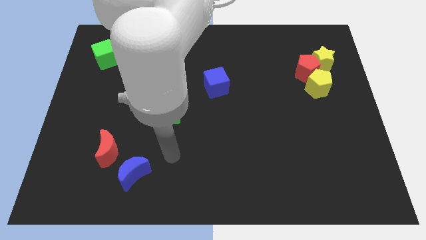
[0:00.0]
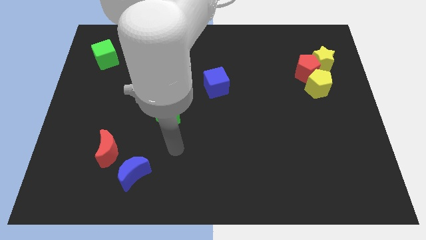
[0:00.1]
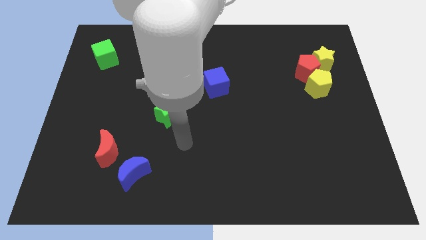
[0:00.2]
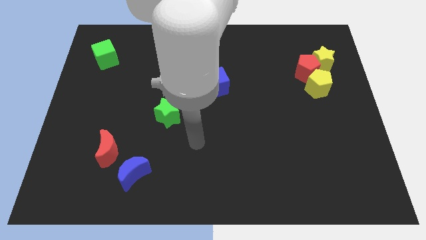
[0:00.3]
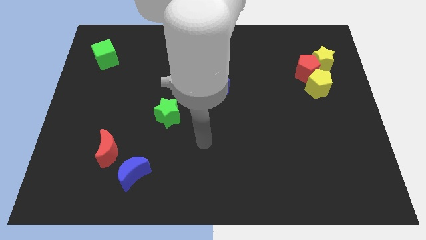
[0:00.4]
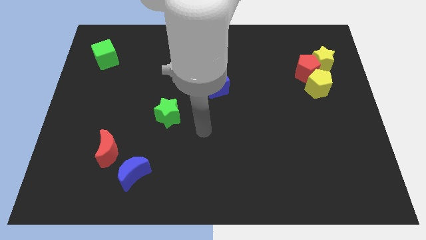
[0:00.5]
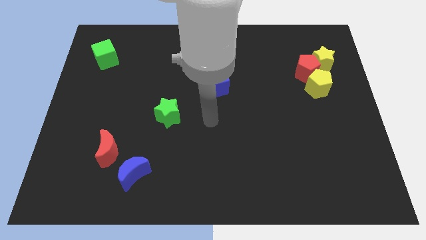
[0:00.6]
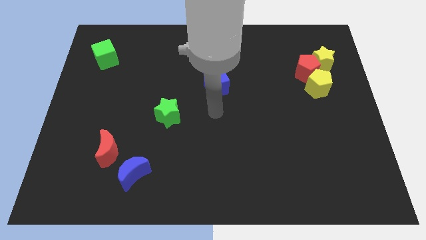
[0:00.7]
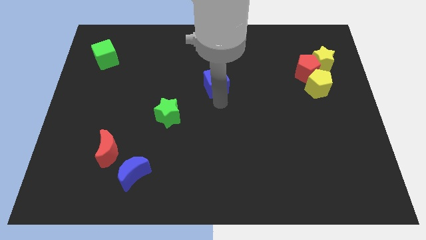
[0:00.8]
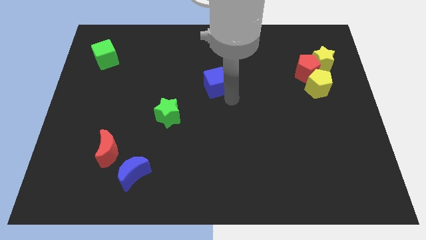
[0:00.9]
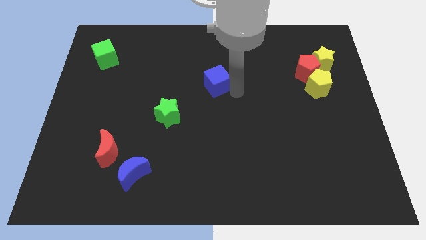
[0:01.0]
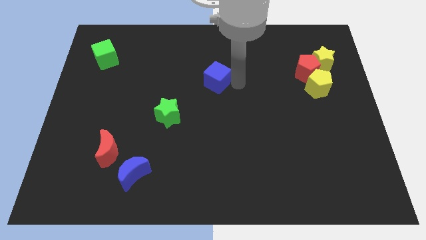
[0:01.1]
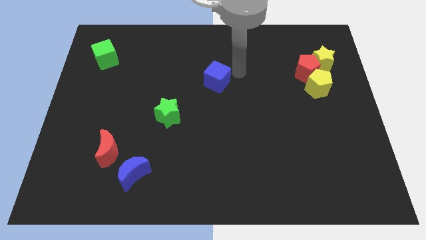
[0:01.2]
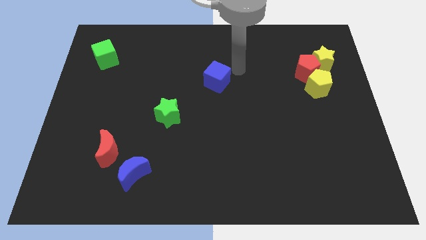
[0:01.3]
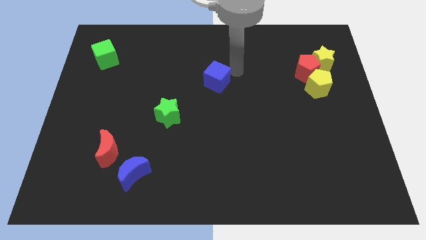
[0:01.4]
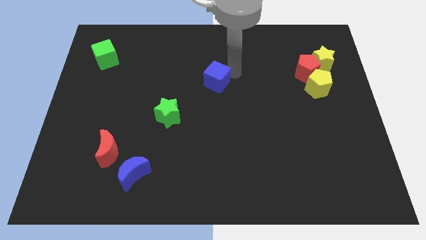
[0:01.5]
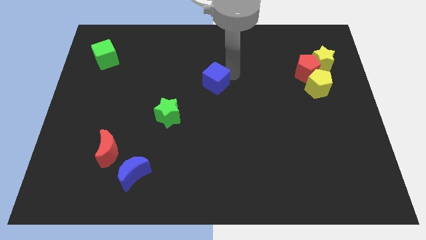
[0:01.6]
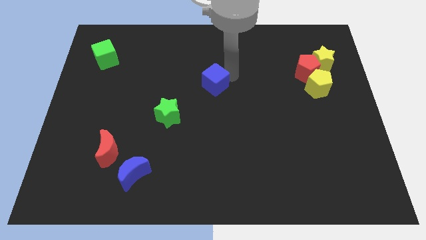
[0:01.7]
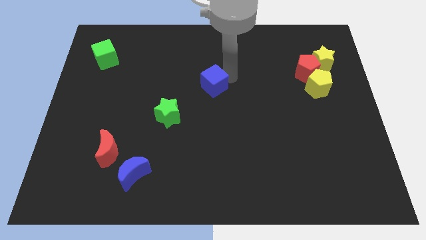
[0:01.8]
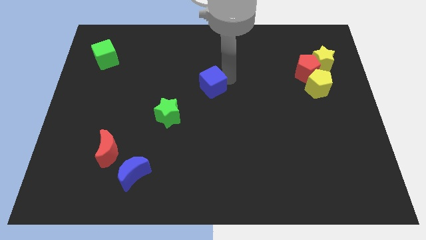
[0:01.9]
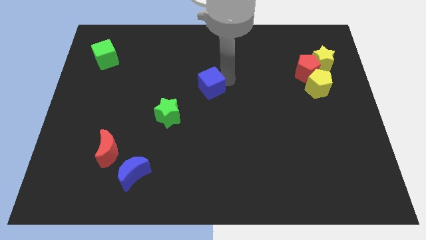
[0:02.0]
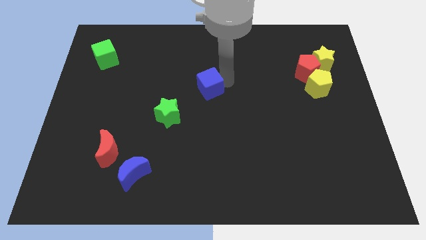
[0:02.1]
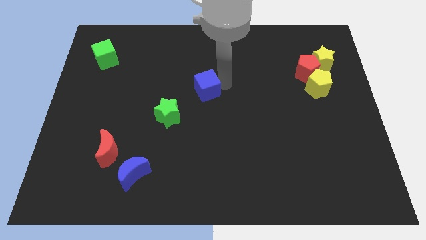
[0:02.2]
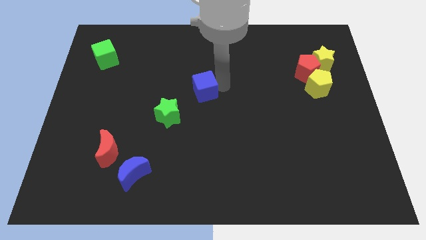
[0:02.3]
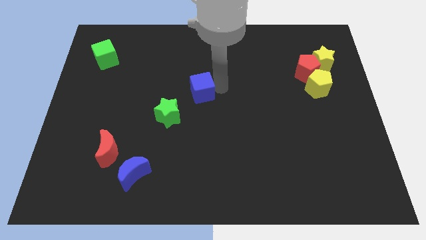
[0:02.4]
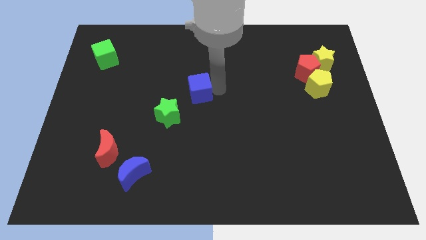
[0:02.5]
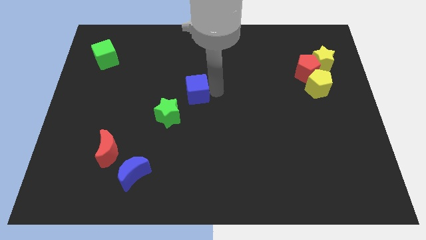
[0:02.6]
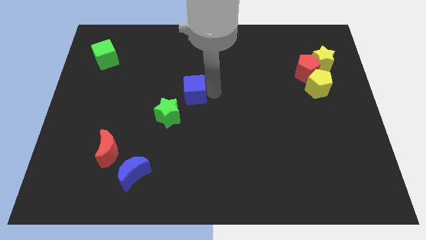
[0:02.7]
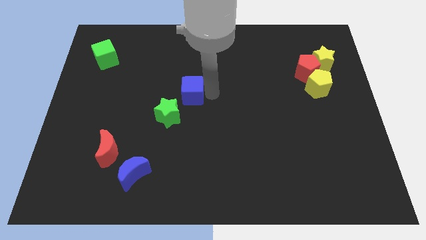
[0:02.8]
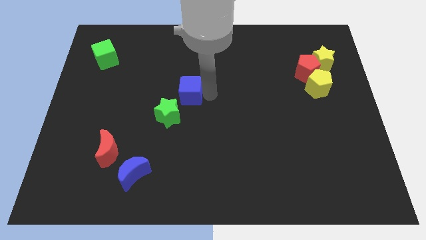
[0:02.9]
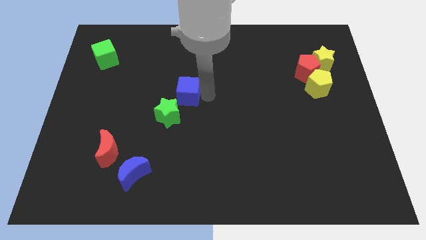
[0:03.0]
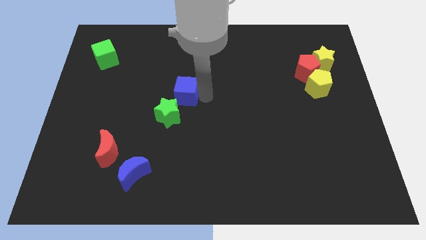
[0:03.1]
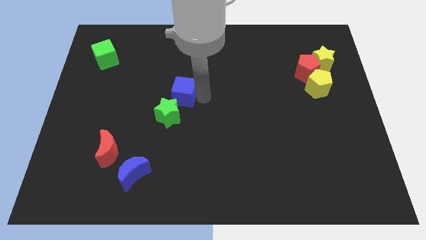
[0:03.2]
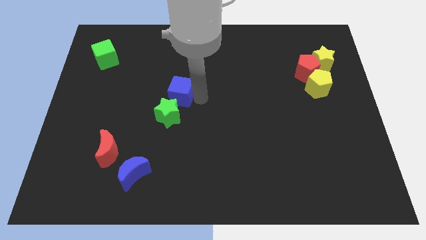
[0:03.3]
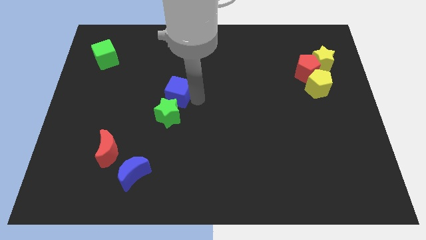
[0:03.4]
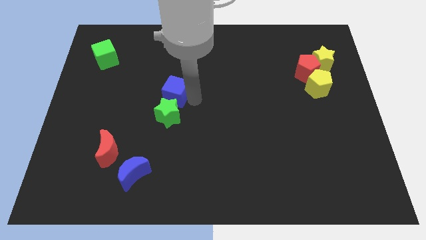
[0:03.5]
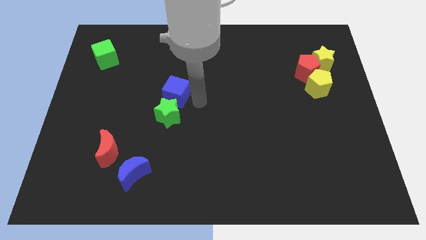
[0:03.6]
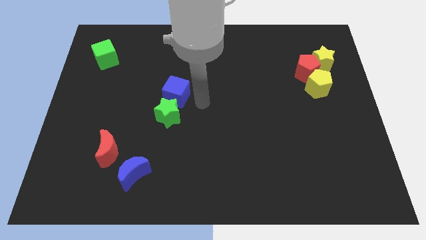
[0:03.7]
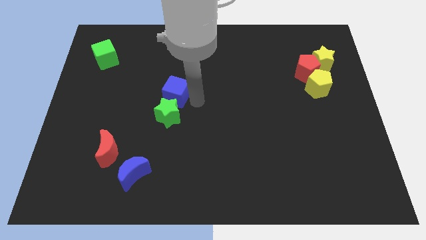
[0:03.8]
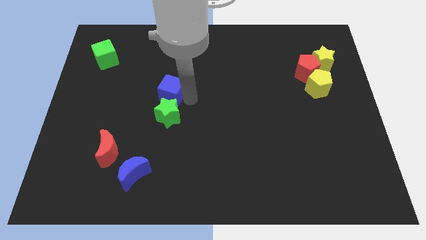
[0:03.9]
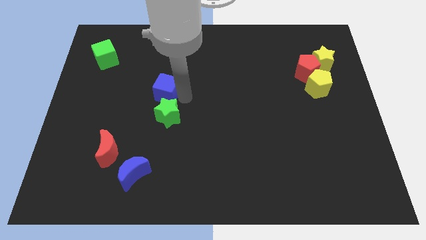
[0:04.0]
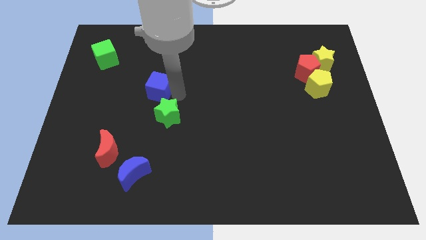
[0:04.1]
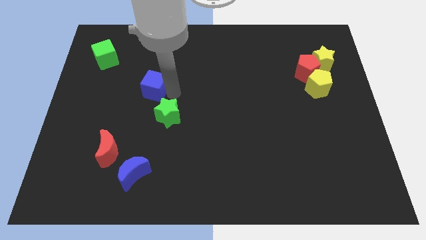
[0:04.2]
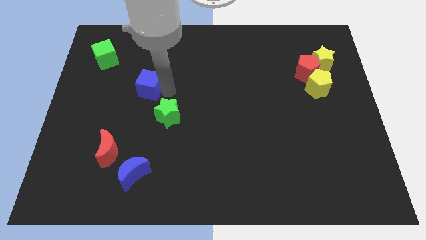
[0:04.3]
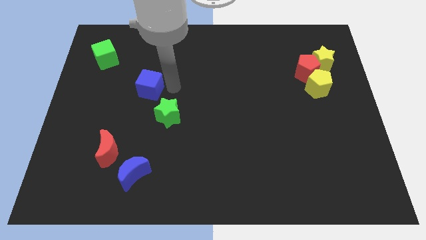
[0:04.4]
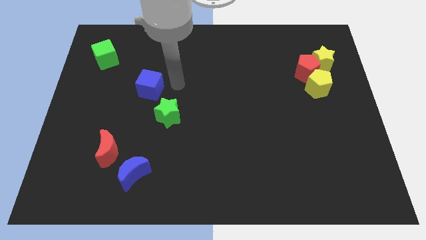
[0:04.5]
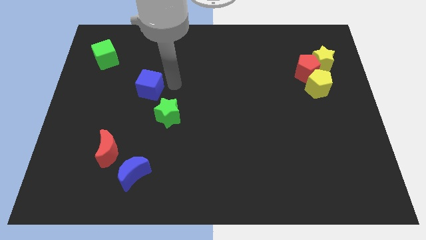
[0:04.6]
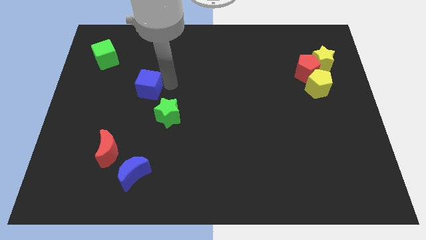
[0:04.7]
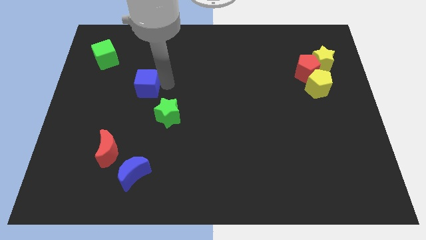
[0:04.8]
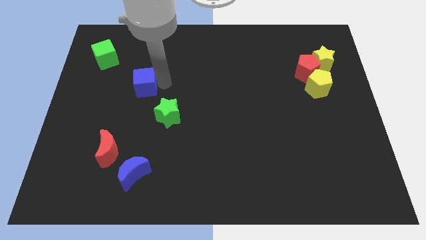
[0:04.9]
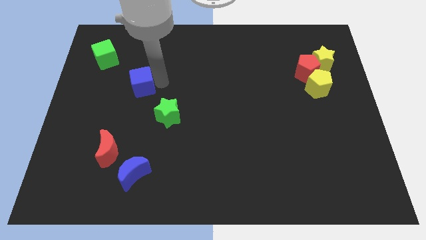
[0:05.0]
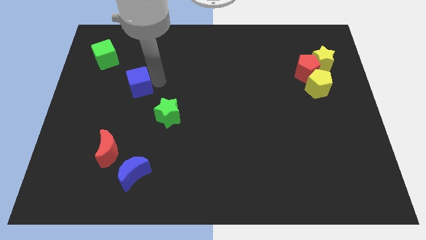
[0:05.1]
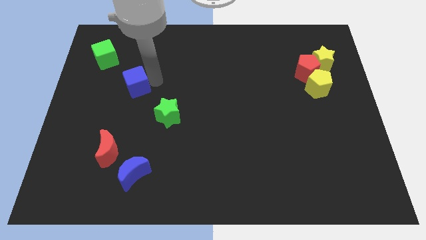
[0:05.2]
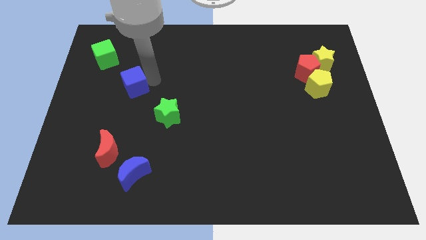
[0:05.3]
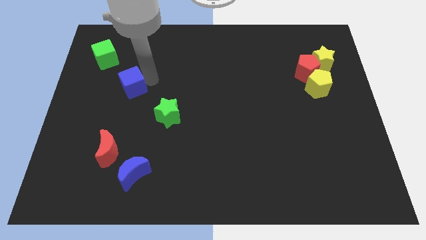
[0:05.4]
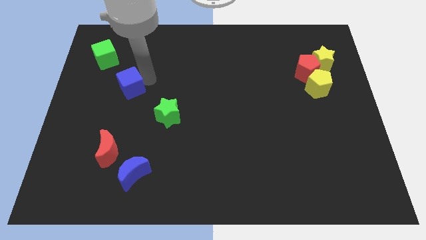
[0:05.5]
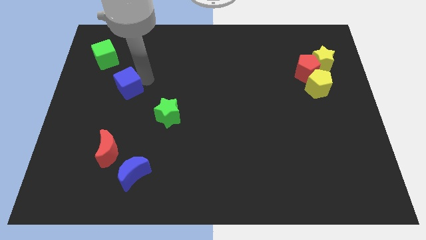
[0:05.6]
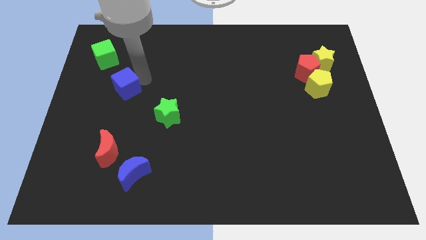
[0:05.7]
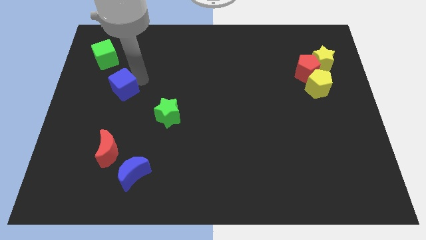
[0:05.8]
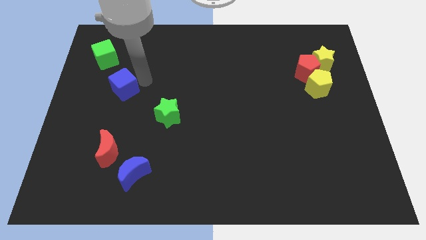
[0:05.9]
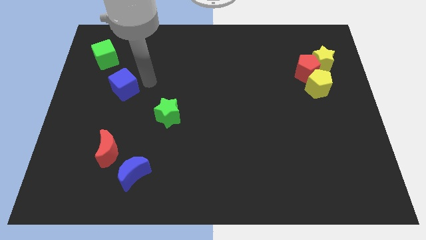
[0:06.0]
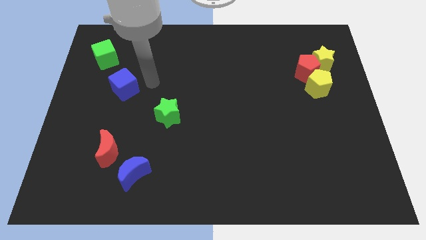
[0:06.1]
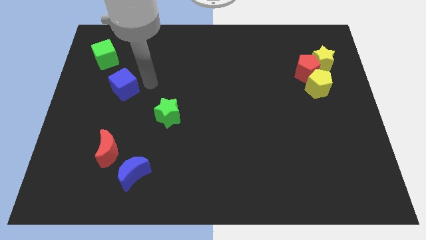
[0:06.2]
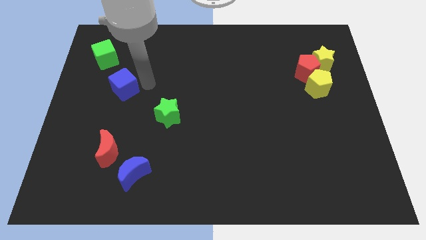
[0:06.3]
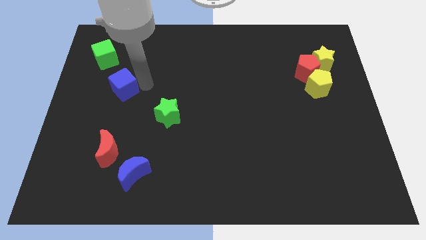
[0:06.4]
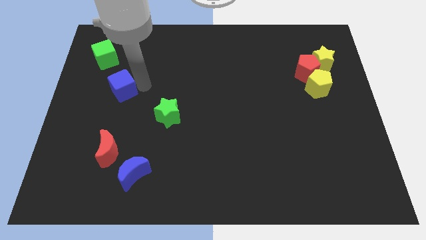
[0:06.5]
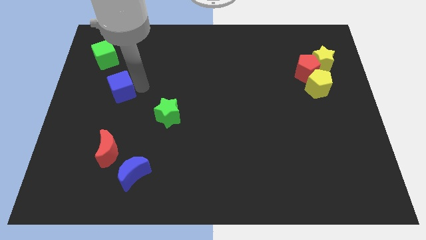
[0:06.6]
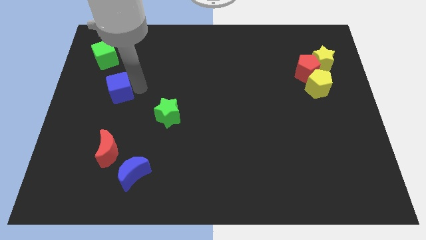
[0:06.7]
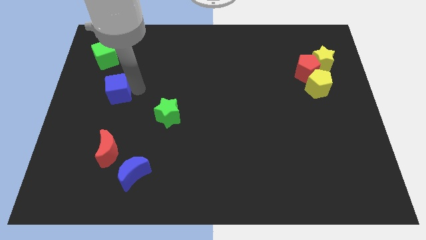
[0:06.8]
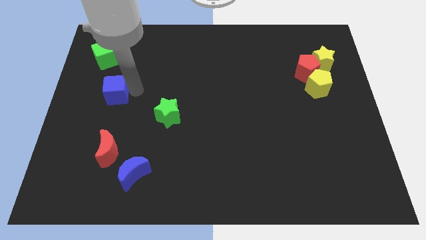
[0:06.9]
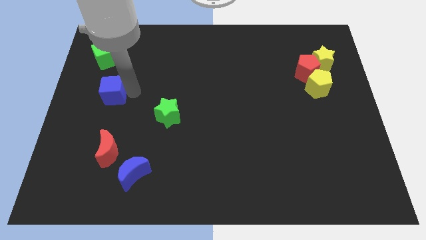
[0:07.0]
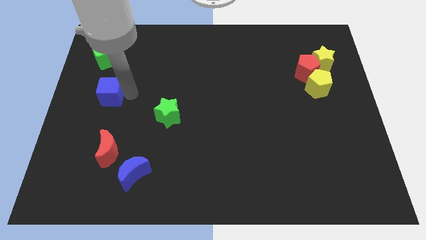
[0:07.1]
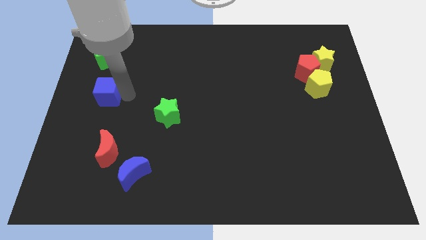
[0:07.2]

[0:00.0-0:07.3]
push the blue cube to the center left

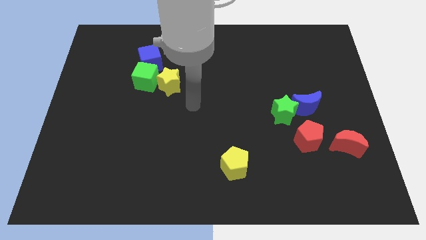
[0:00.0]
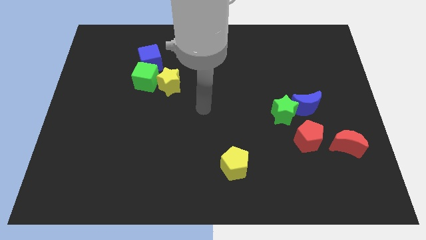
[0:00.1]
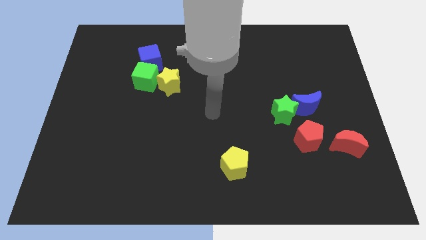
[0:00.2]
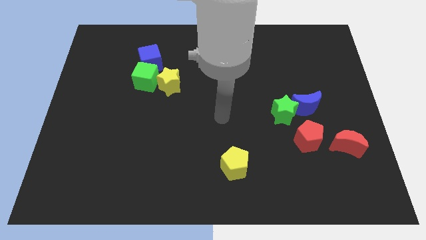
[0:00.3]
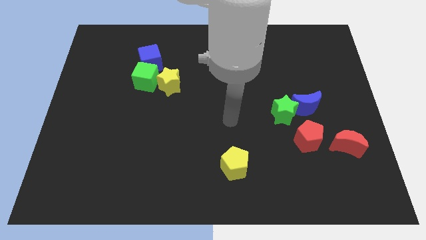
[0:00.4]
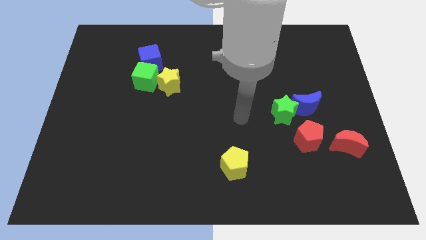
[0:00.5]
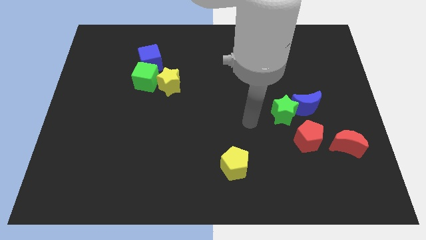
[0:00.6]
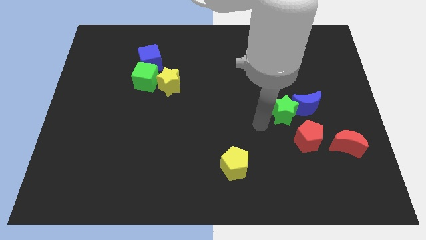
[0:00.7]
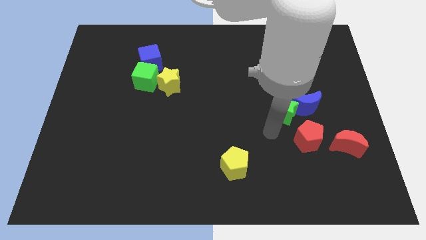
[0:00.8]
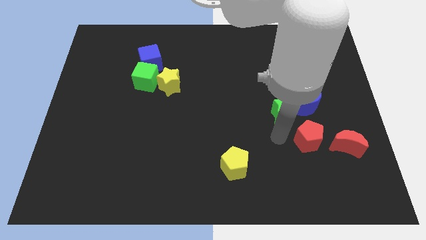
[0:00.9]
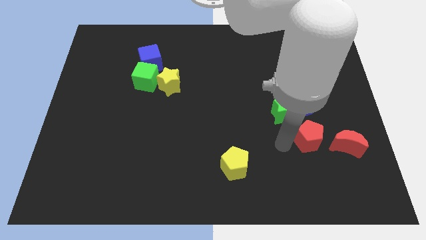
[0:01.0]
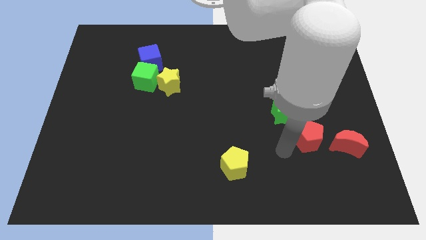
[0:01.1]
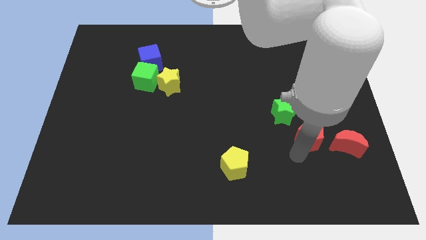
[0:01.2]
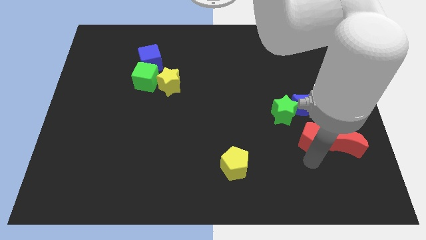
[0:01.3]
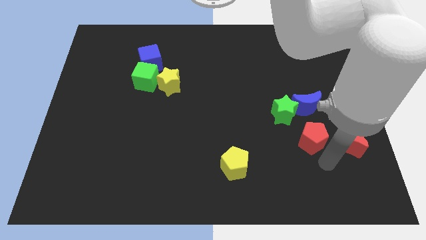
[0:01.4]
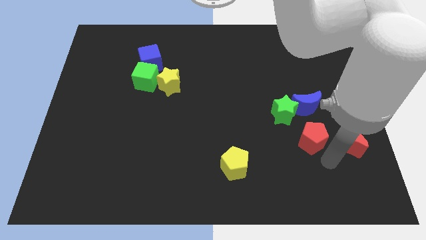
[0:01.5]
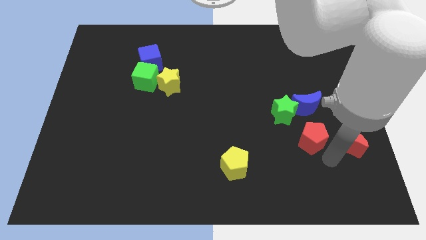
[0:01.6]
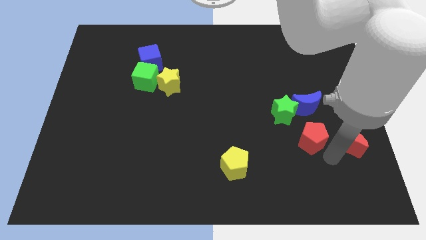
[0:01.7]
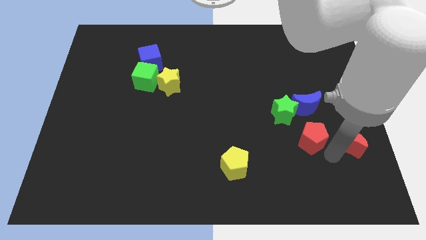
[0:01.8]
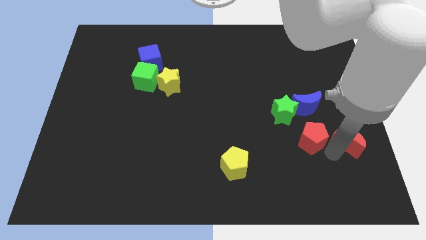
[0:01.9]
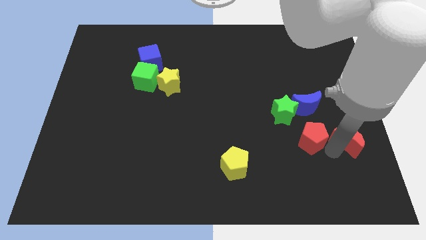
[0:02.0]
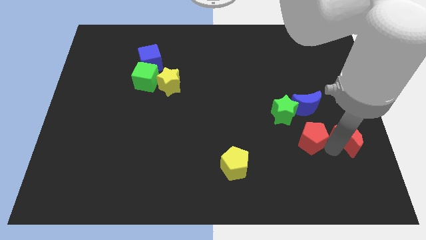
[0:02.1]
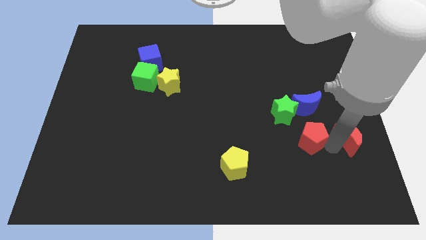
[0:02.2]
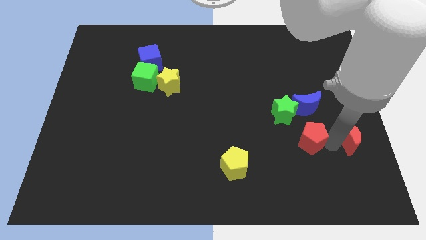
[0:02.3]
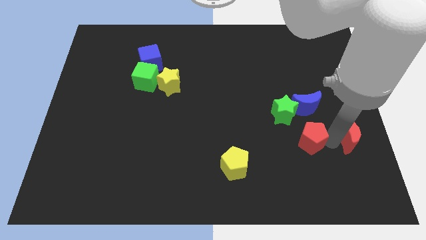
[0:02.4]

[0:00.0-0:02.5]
move the red moon to the right side
